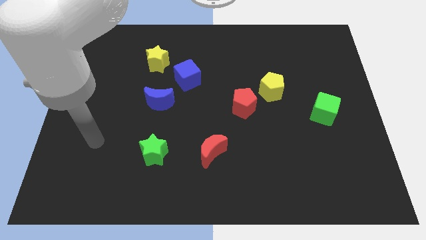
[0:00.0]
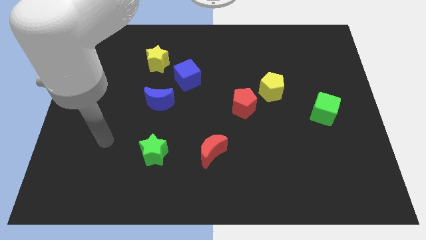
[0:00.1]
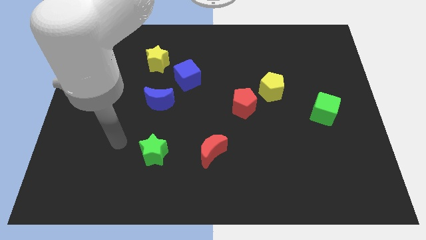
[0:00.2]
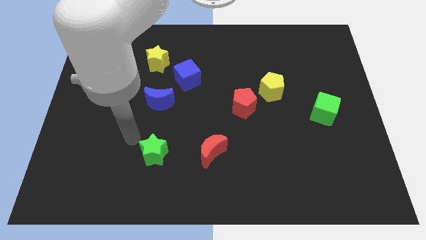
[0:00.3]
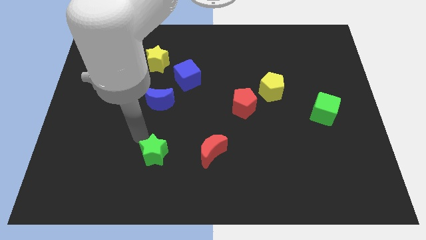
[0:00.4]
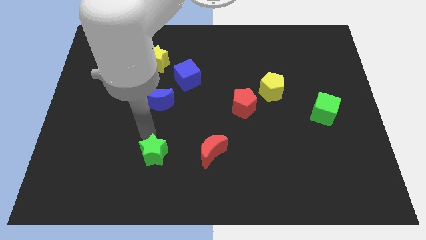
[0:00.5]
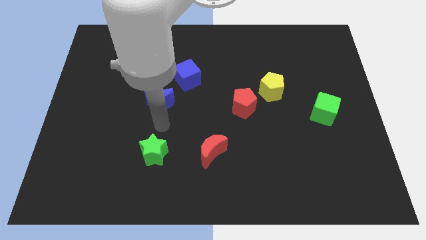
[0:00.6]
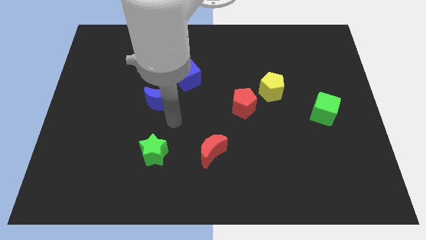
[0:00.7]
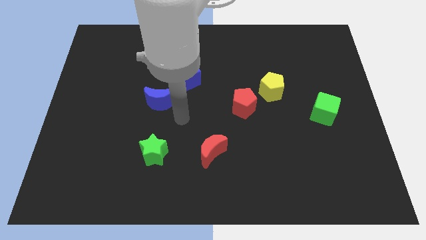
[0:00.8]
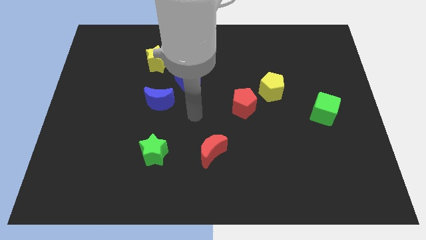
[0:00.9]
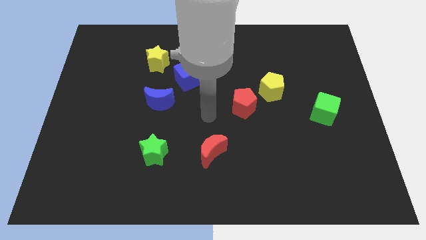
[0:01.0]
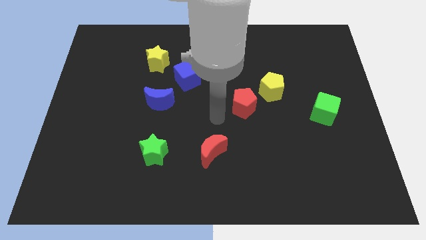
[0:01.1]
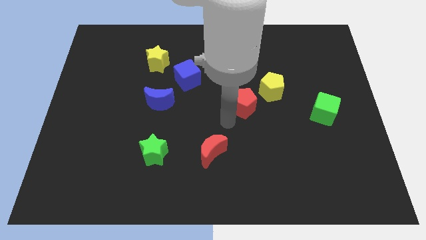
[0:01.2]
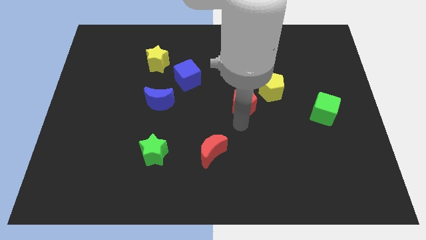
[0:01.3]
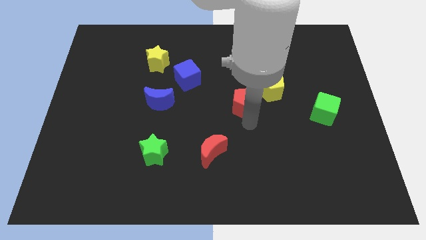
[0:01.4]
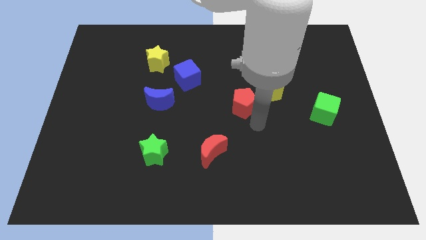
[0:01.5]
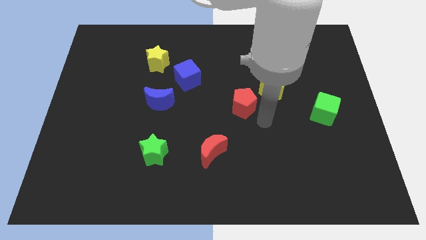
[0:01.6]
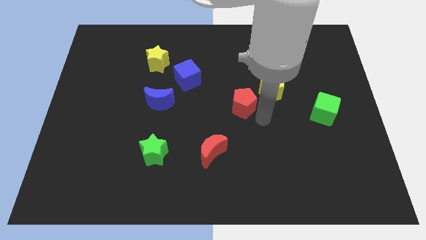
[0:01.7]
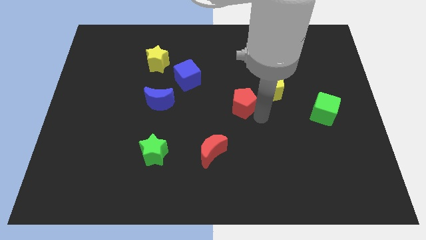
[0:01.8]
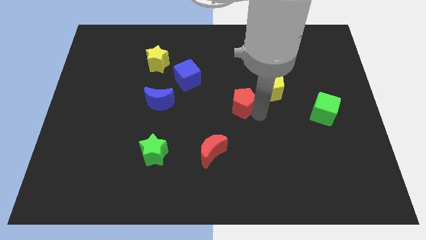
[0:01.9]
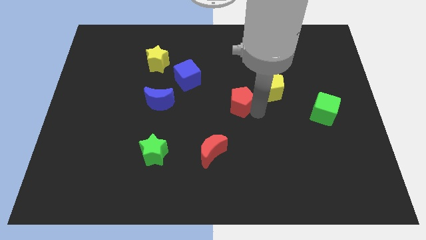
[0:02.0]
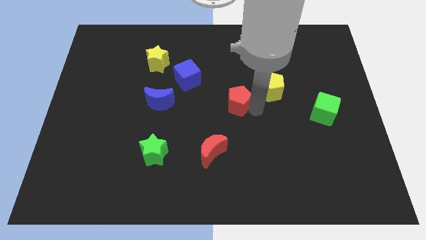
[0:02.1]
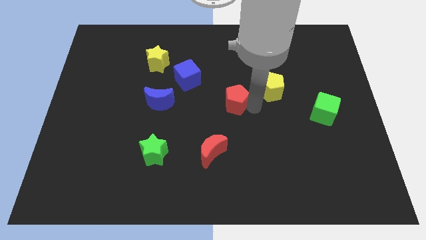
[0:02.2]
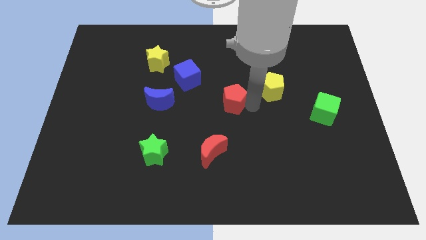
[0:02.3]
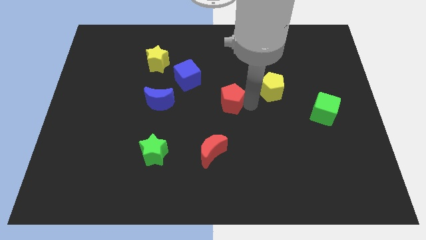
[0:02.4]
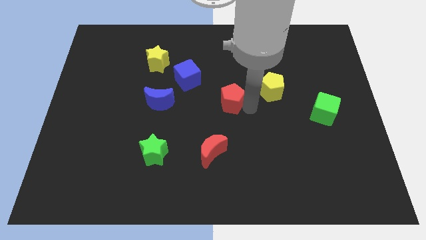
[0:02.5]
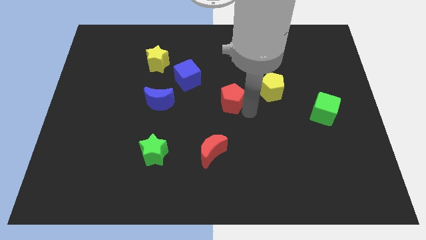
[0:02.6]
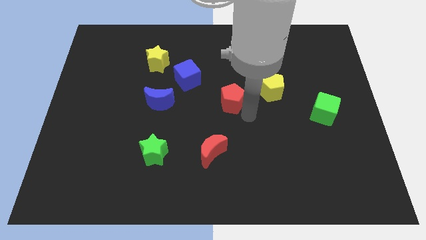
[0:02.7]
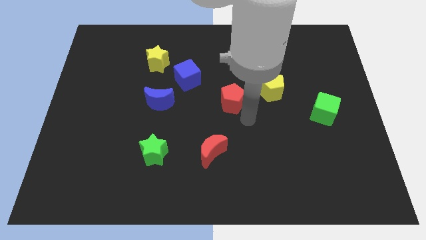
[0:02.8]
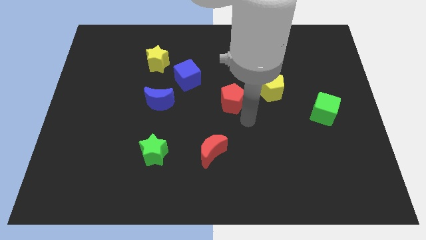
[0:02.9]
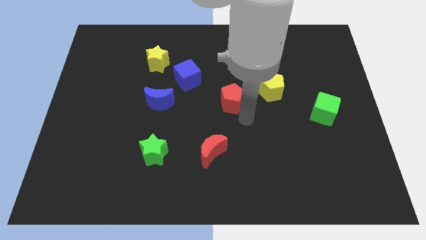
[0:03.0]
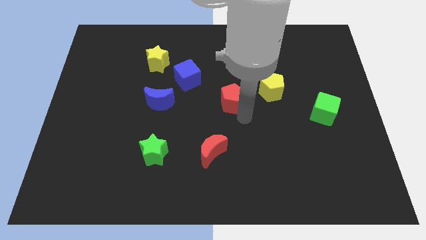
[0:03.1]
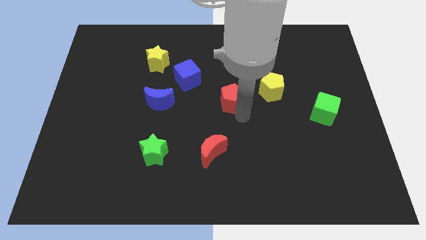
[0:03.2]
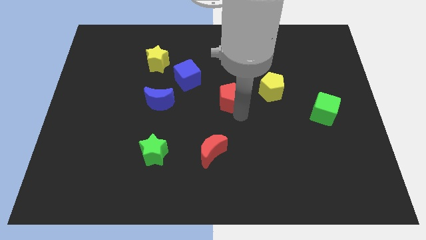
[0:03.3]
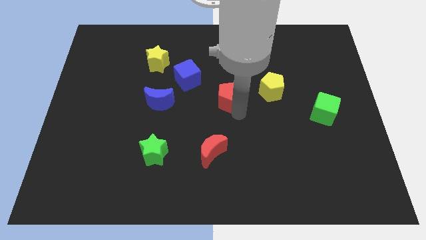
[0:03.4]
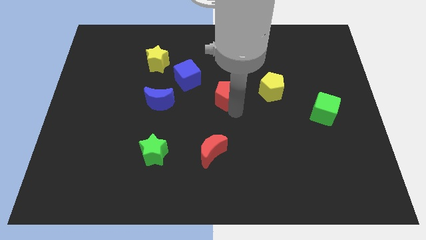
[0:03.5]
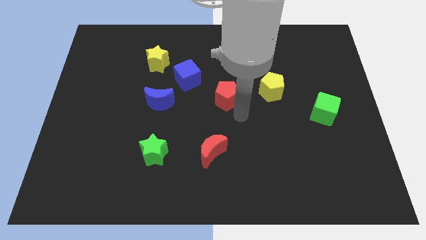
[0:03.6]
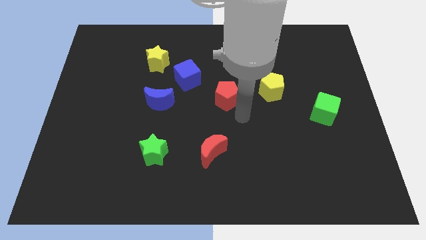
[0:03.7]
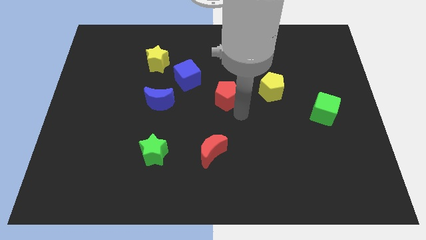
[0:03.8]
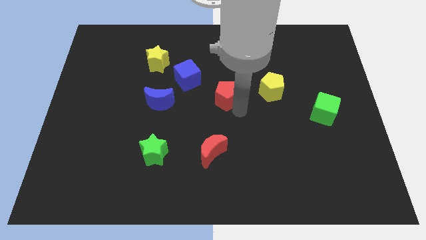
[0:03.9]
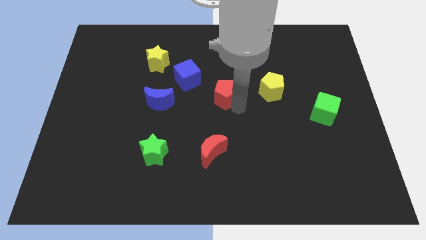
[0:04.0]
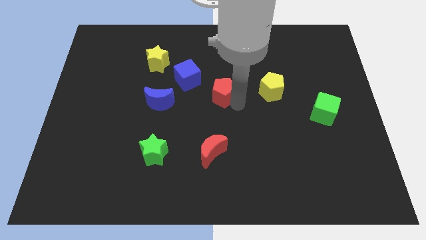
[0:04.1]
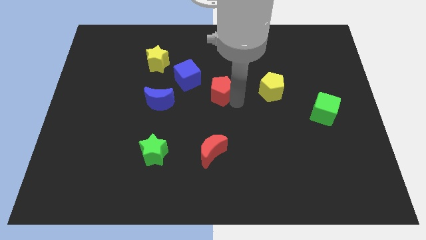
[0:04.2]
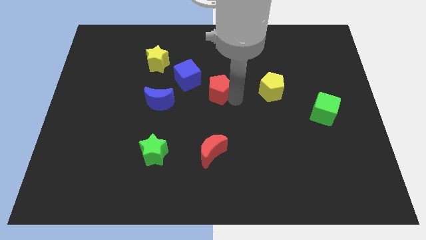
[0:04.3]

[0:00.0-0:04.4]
move the red pentagon upwards and left a bit

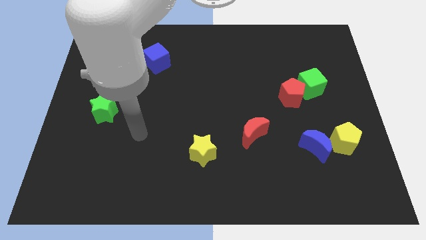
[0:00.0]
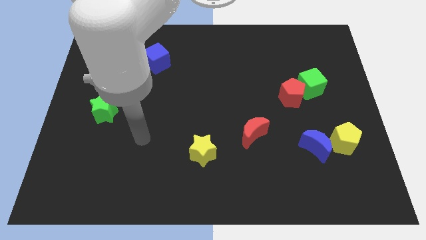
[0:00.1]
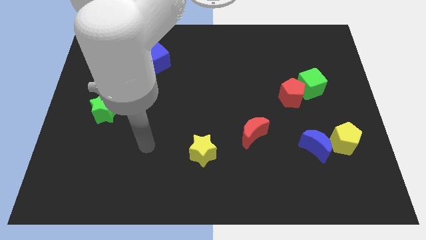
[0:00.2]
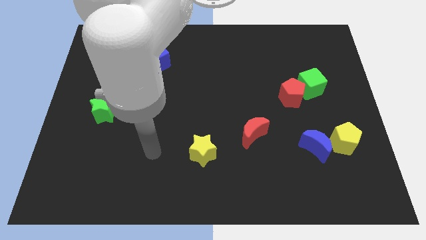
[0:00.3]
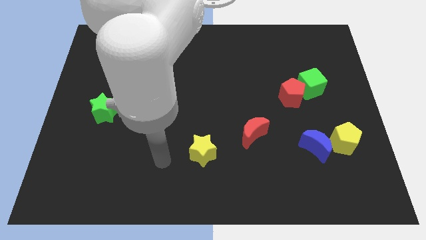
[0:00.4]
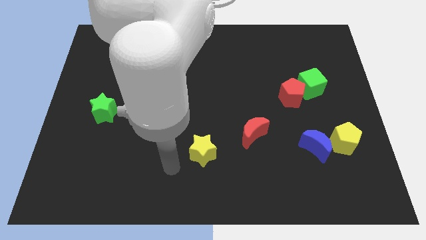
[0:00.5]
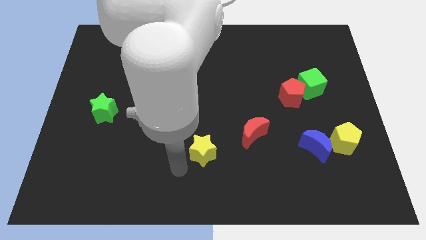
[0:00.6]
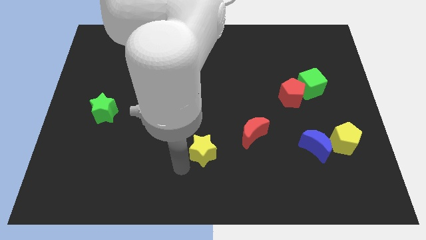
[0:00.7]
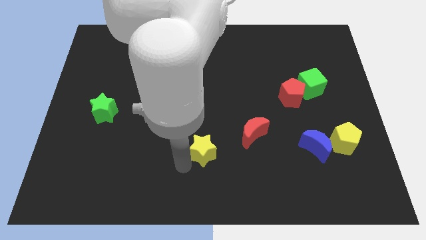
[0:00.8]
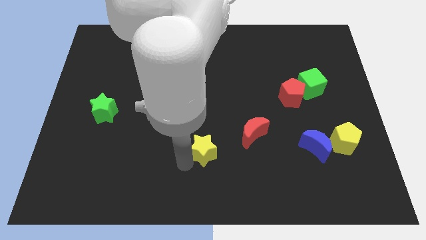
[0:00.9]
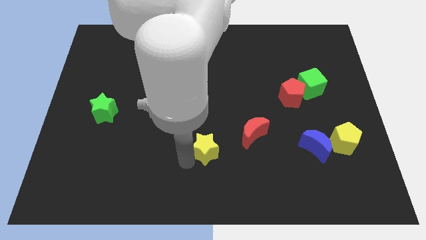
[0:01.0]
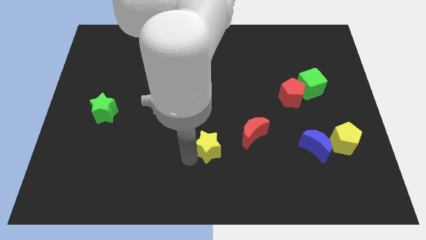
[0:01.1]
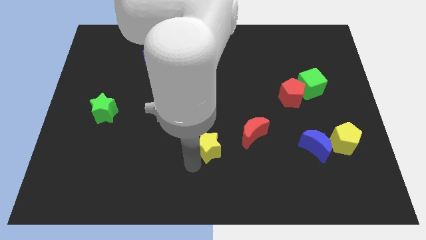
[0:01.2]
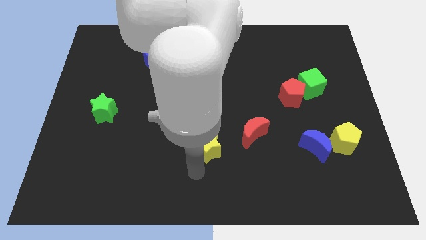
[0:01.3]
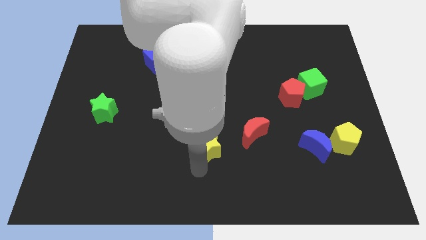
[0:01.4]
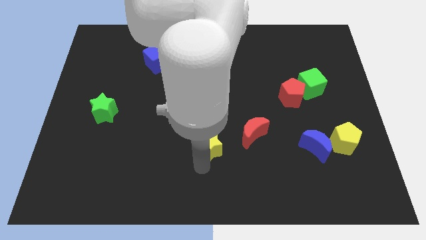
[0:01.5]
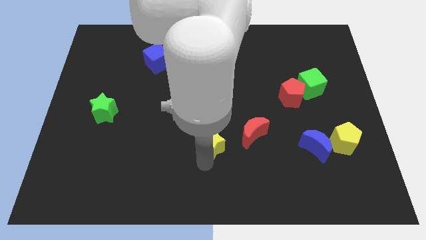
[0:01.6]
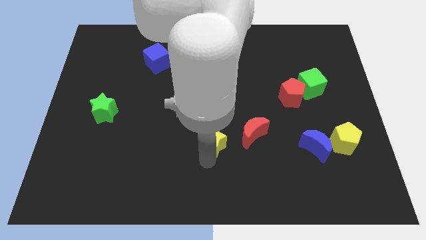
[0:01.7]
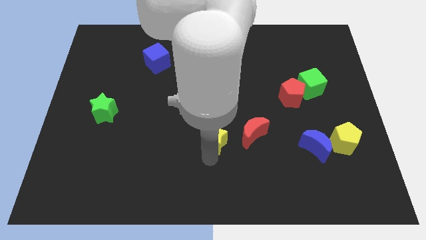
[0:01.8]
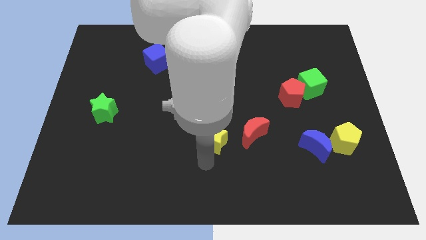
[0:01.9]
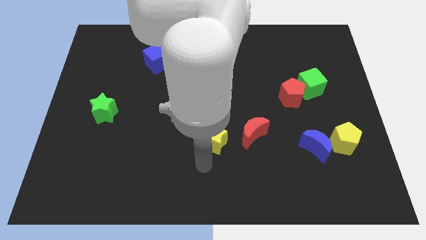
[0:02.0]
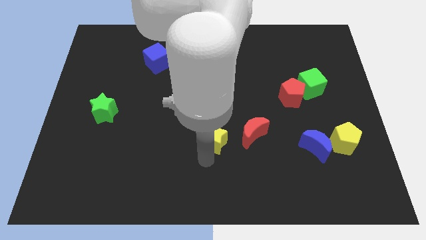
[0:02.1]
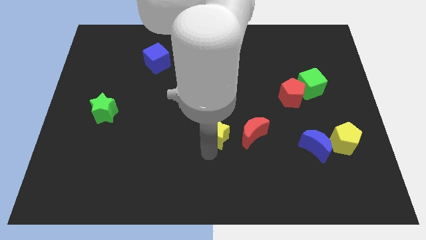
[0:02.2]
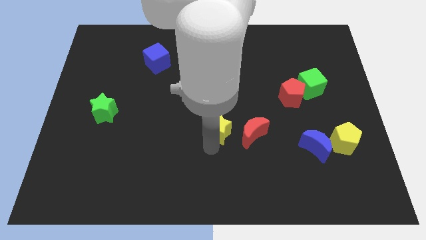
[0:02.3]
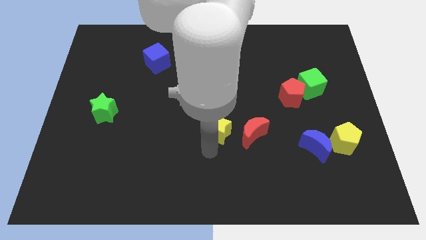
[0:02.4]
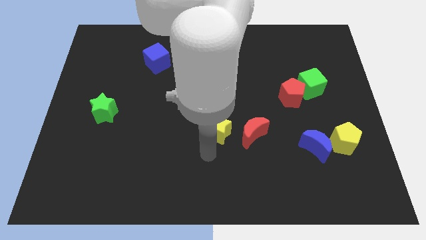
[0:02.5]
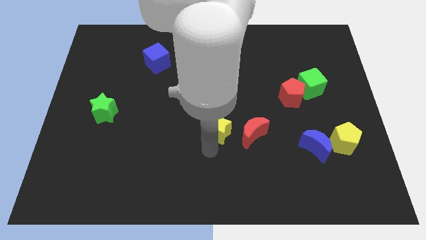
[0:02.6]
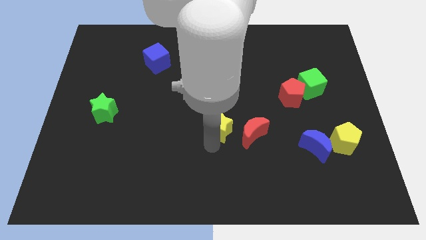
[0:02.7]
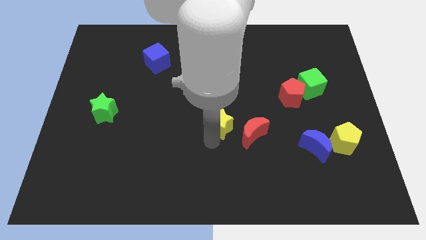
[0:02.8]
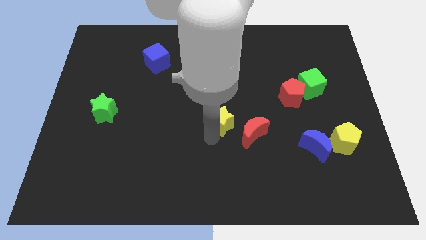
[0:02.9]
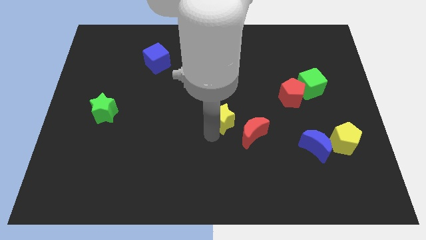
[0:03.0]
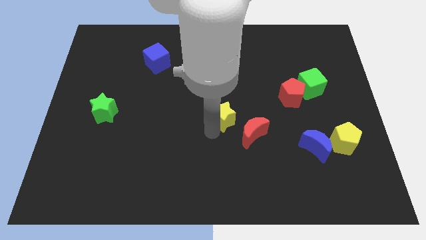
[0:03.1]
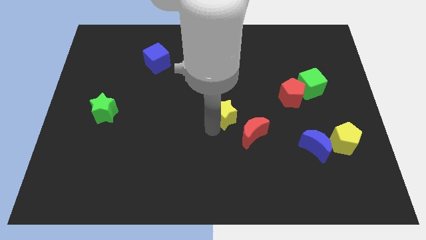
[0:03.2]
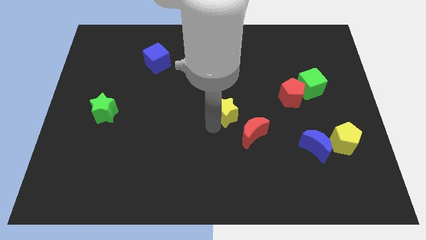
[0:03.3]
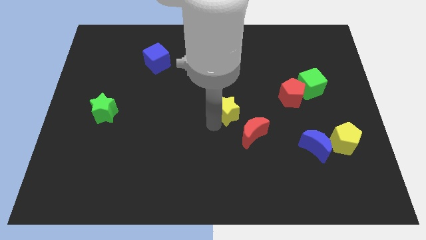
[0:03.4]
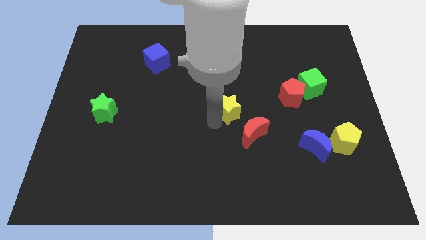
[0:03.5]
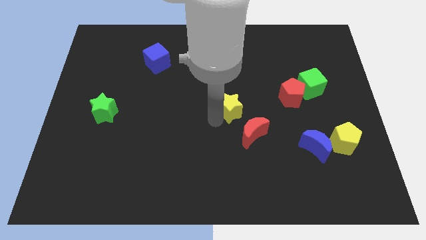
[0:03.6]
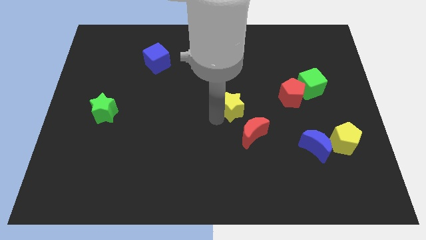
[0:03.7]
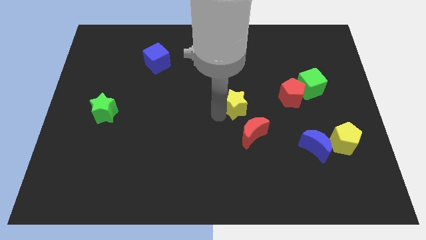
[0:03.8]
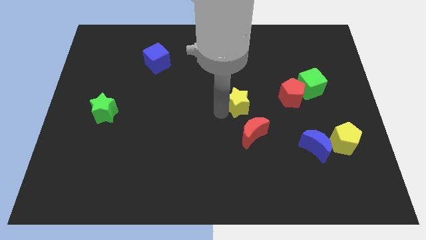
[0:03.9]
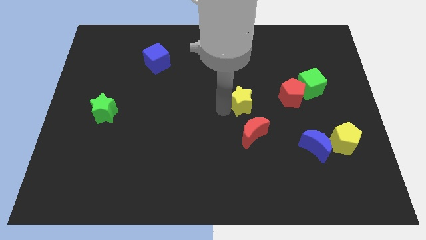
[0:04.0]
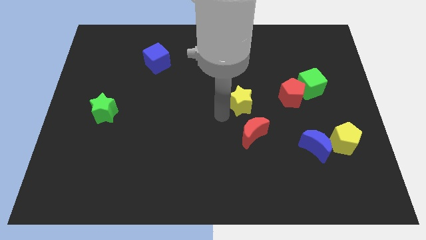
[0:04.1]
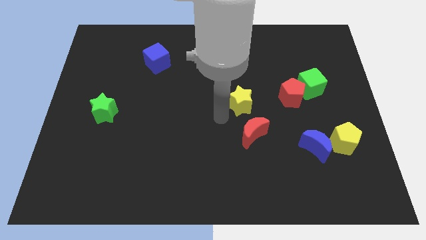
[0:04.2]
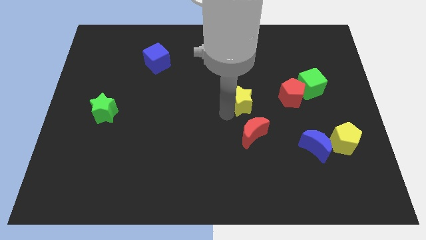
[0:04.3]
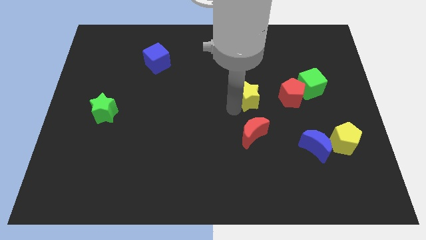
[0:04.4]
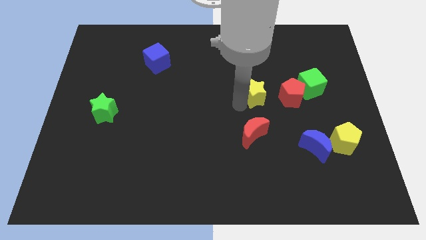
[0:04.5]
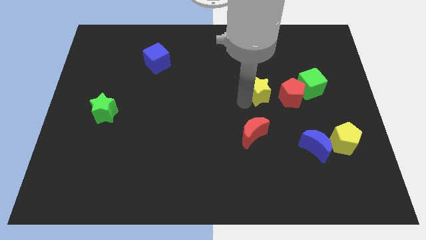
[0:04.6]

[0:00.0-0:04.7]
push the yellow star up and then right
